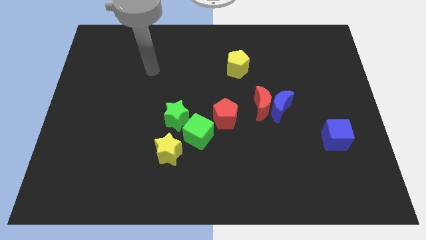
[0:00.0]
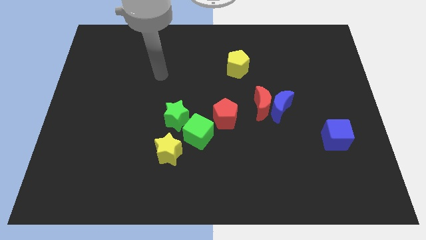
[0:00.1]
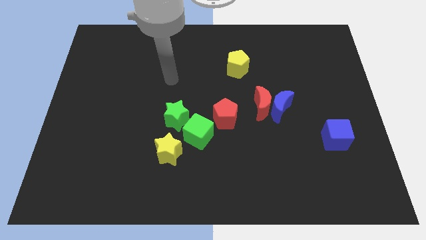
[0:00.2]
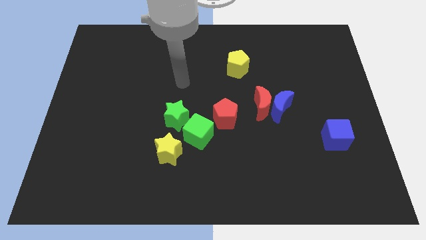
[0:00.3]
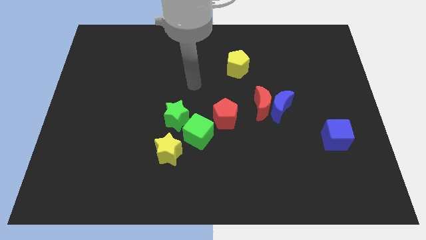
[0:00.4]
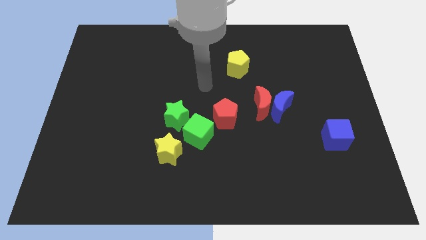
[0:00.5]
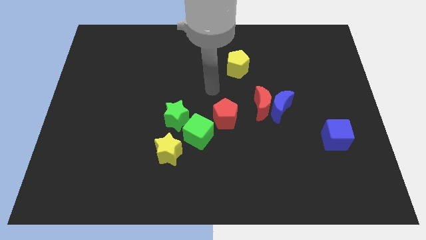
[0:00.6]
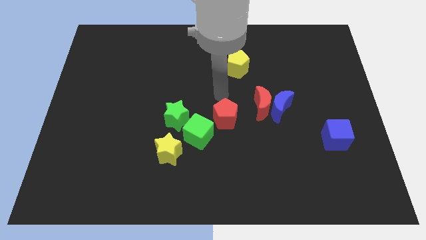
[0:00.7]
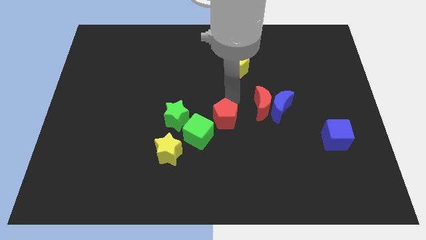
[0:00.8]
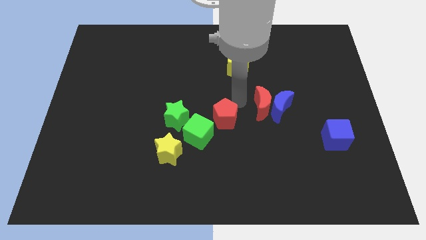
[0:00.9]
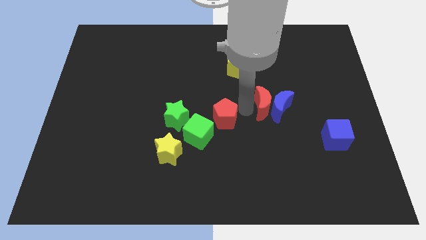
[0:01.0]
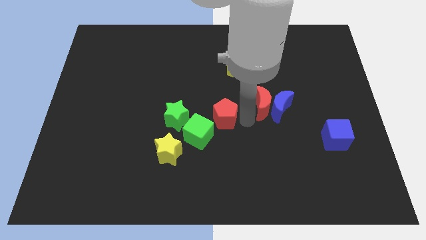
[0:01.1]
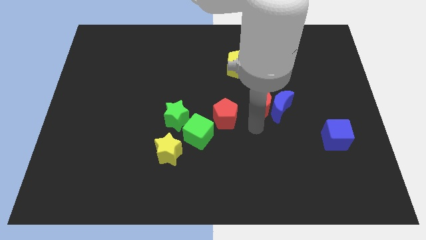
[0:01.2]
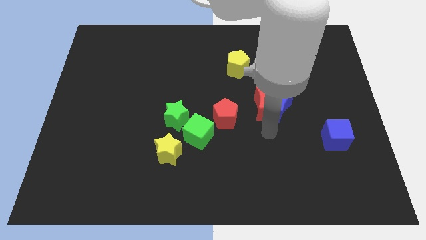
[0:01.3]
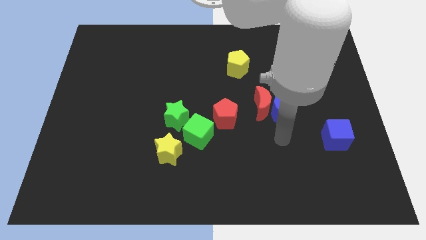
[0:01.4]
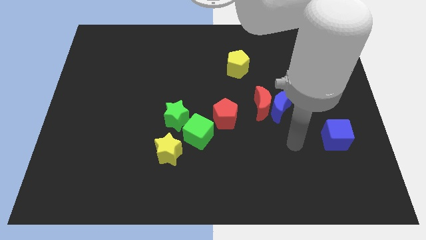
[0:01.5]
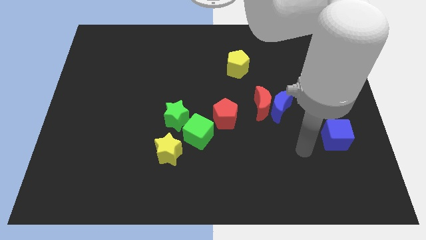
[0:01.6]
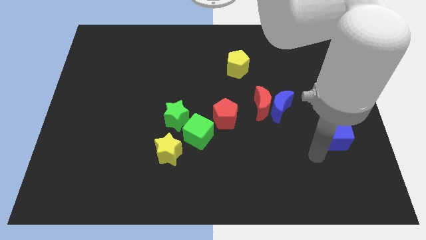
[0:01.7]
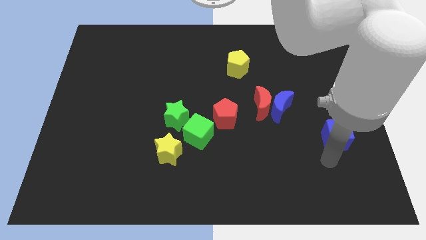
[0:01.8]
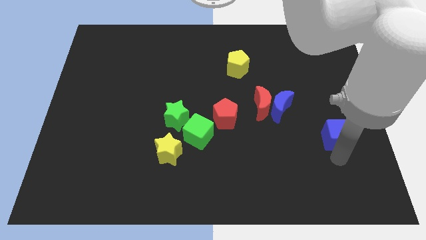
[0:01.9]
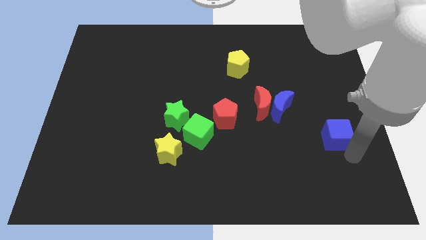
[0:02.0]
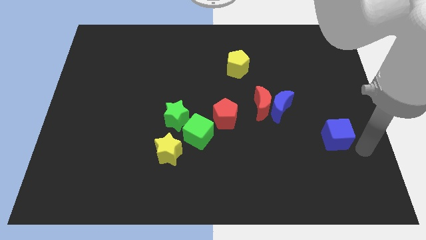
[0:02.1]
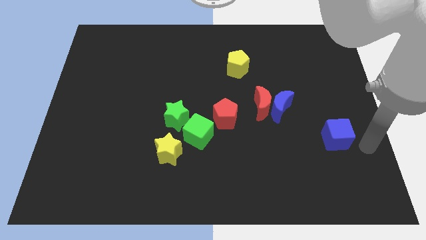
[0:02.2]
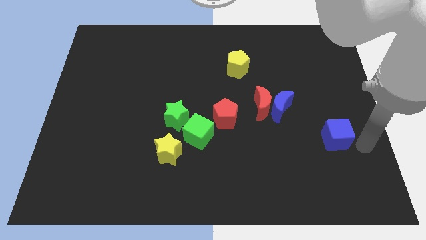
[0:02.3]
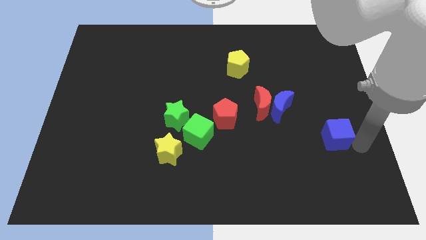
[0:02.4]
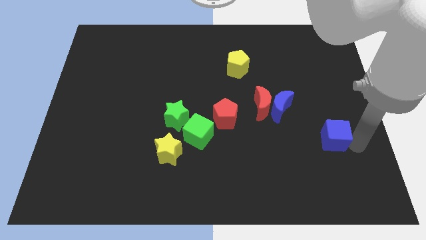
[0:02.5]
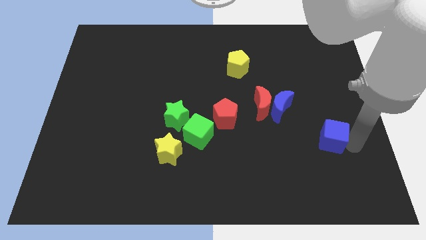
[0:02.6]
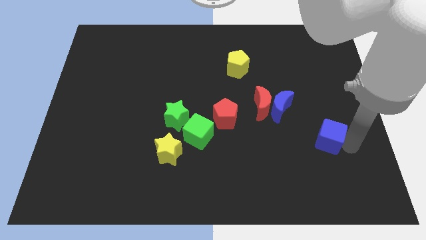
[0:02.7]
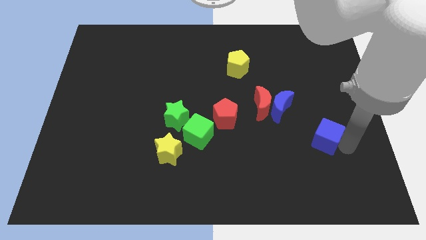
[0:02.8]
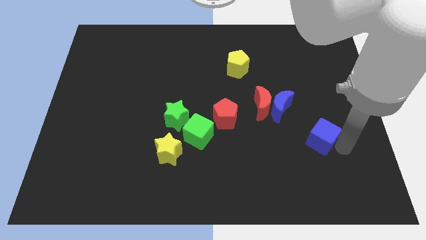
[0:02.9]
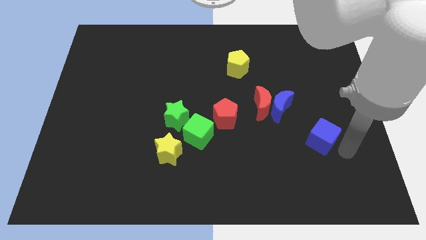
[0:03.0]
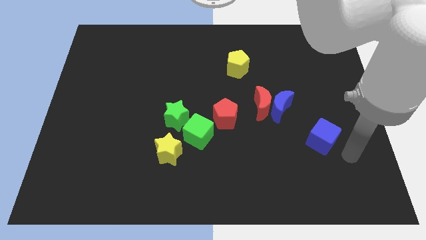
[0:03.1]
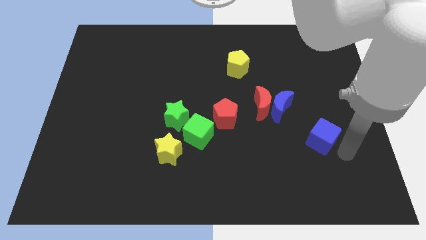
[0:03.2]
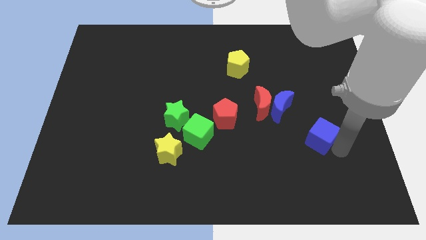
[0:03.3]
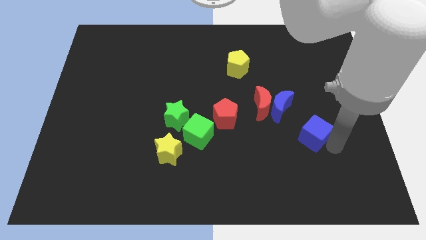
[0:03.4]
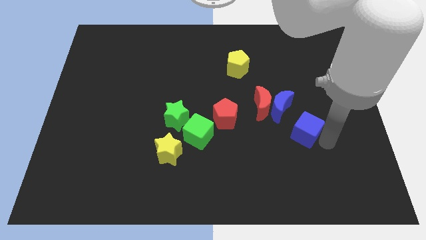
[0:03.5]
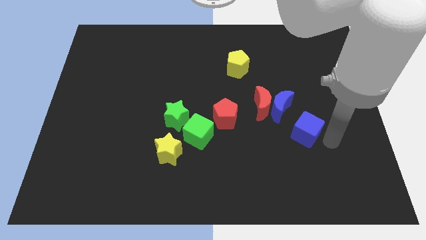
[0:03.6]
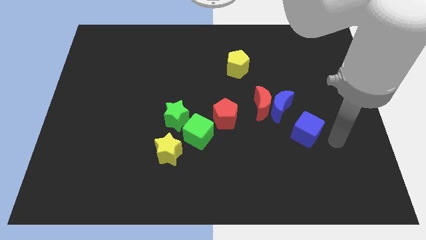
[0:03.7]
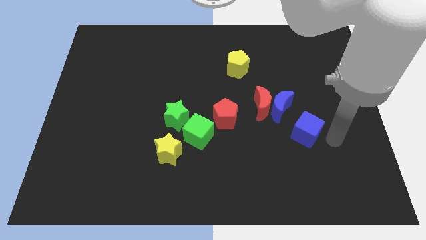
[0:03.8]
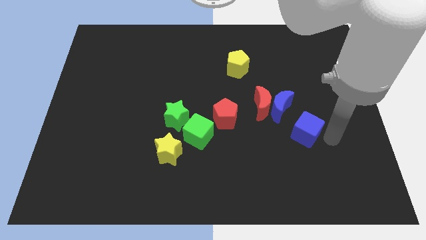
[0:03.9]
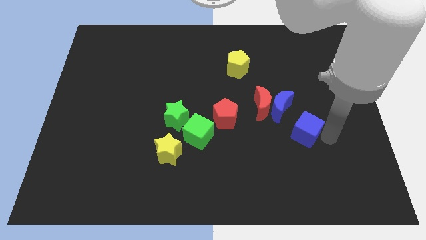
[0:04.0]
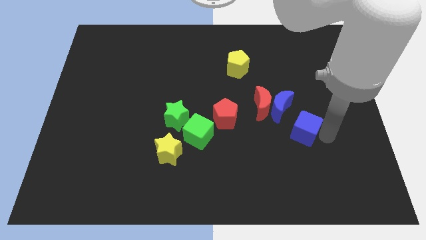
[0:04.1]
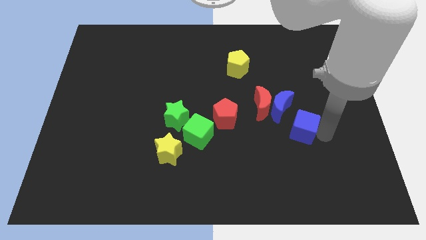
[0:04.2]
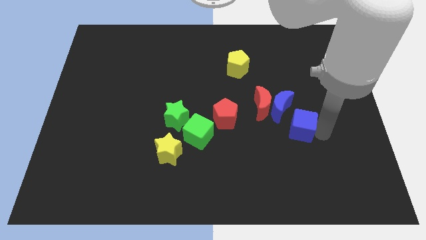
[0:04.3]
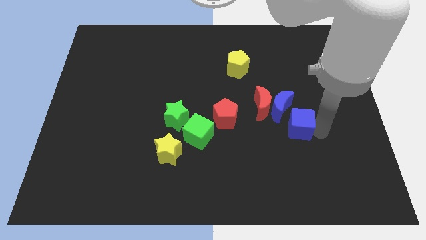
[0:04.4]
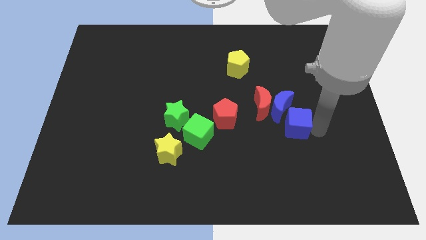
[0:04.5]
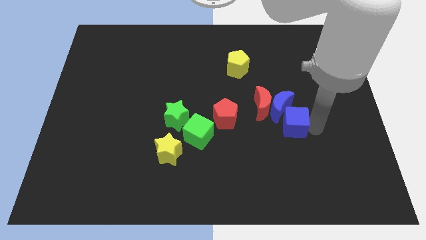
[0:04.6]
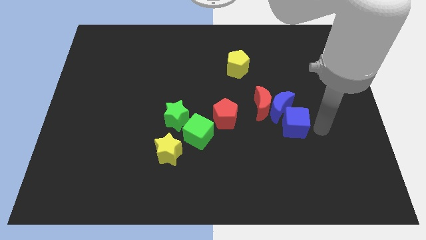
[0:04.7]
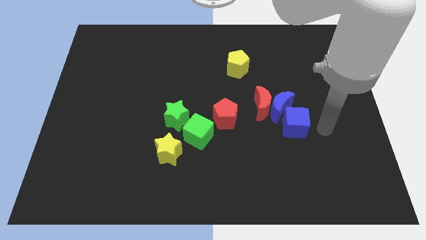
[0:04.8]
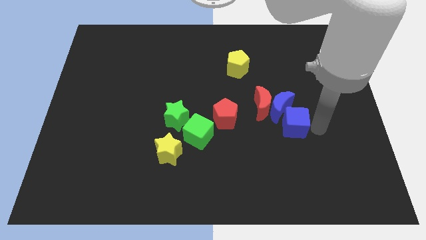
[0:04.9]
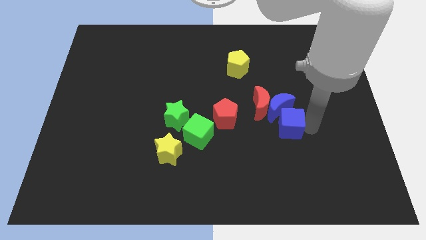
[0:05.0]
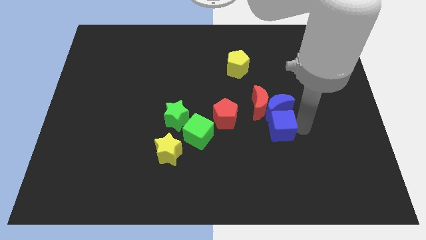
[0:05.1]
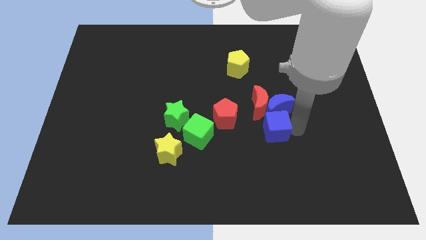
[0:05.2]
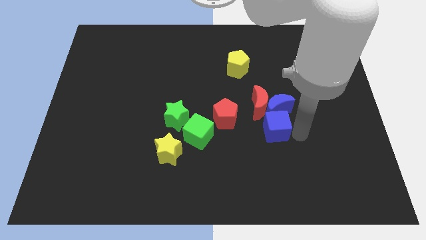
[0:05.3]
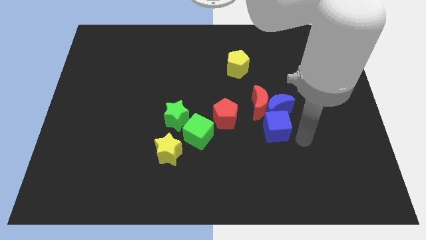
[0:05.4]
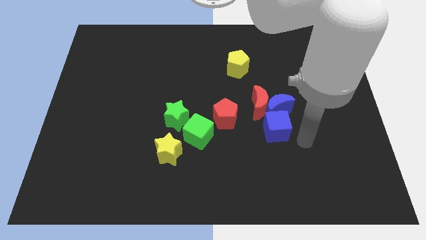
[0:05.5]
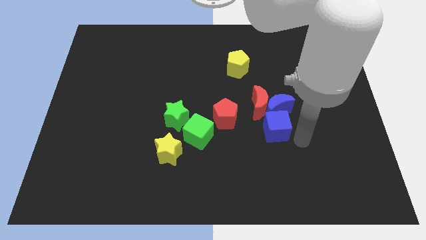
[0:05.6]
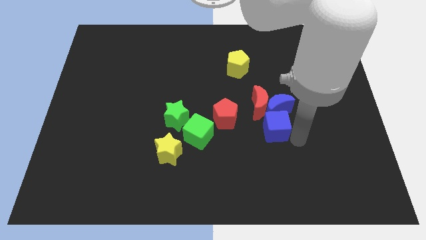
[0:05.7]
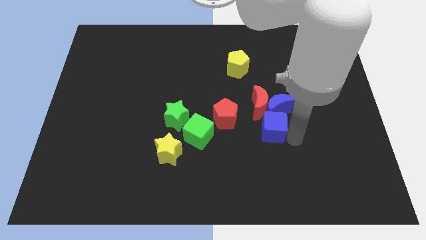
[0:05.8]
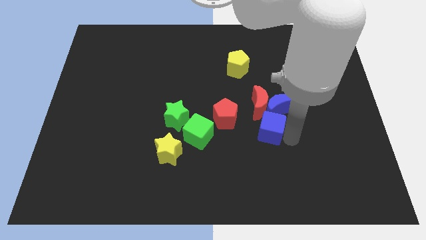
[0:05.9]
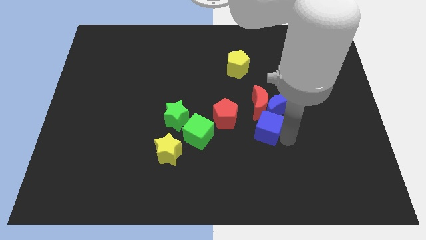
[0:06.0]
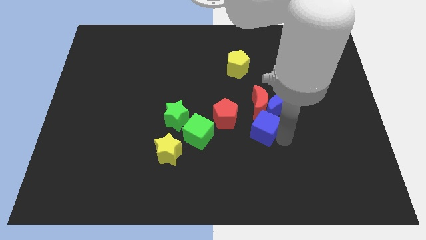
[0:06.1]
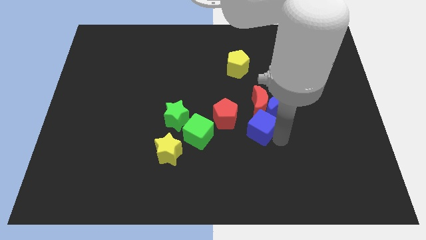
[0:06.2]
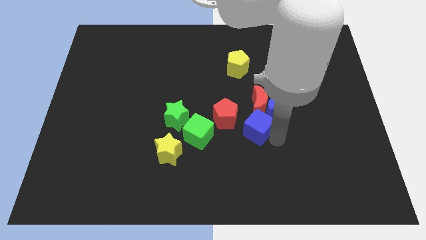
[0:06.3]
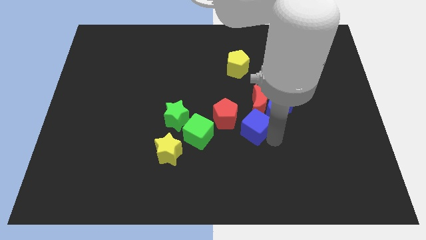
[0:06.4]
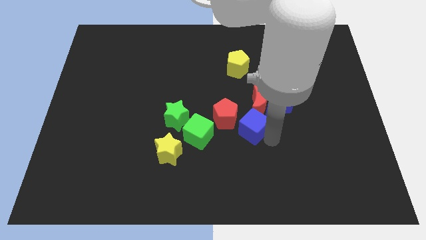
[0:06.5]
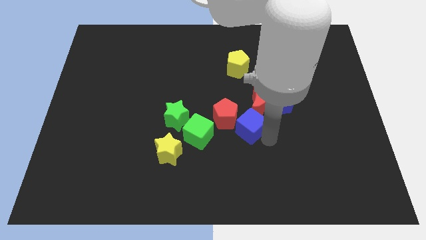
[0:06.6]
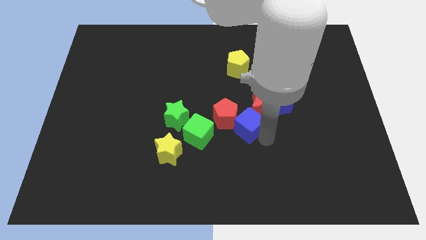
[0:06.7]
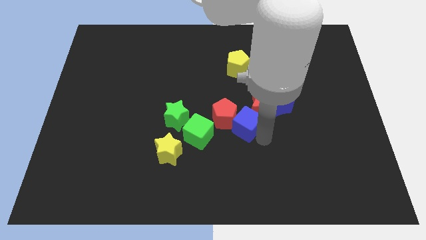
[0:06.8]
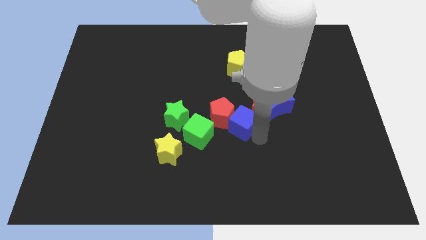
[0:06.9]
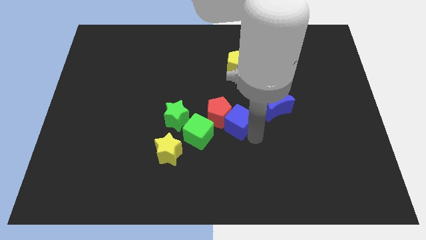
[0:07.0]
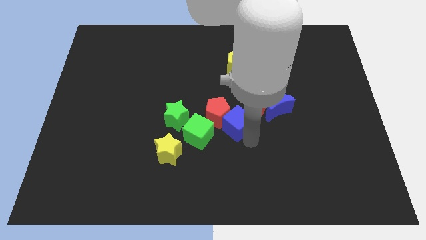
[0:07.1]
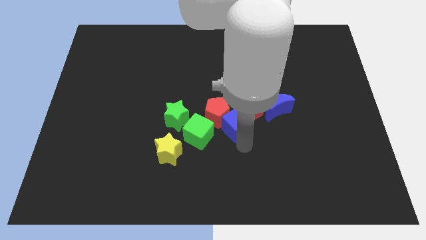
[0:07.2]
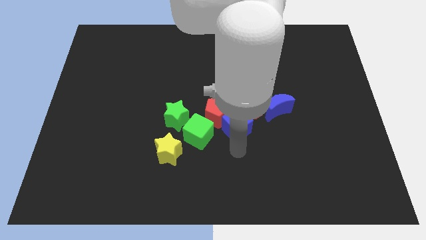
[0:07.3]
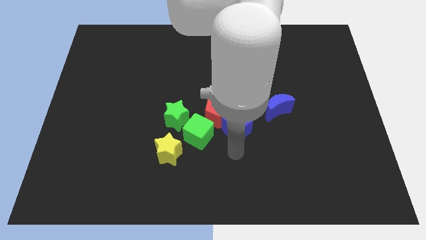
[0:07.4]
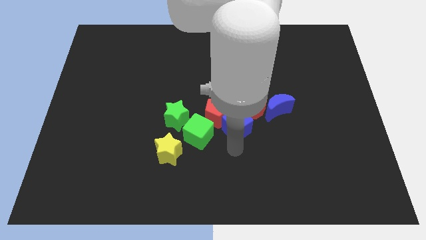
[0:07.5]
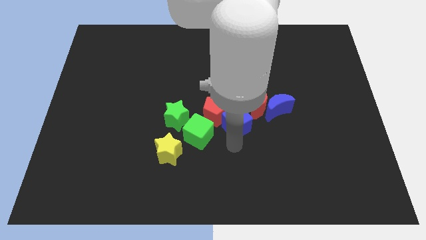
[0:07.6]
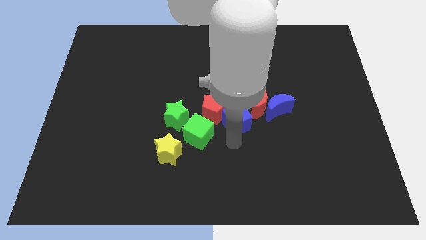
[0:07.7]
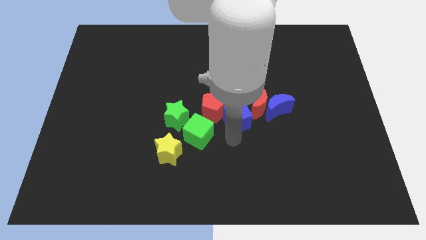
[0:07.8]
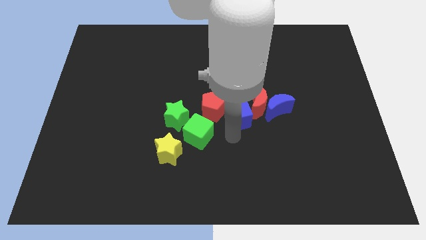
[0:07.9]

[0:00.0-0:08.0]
push the blue cube to the bottom side of the yellow pentagon

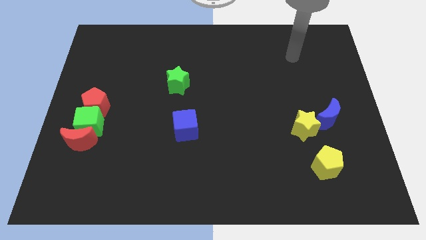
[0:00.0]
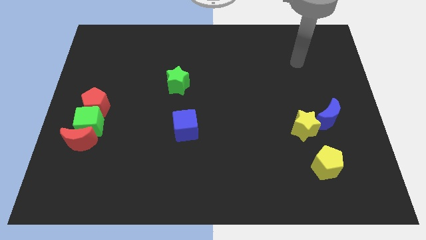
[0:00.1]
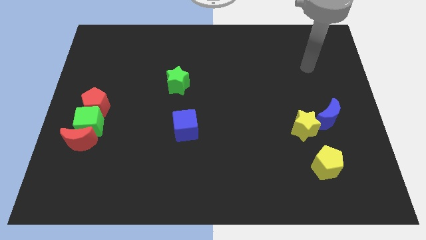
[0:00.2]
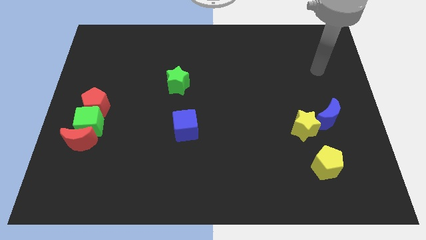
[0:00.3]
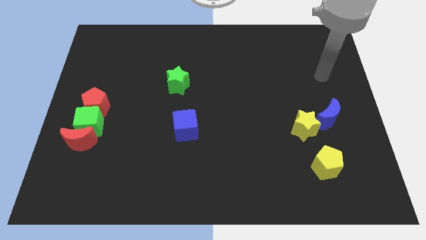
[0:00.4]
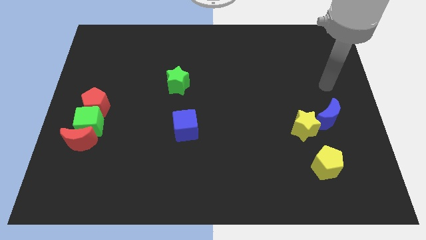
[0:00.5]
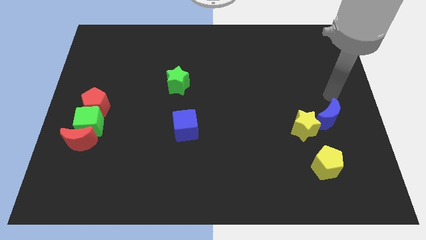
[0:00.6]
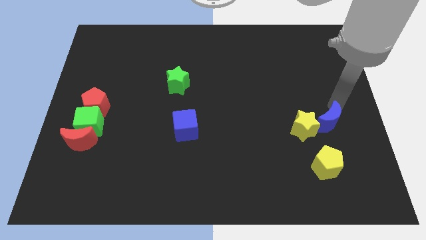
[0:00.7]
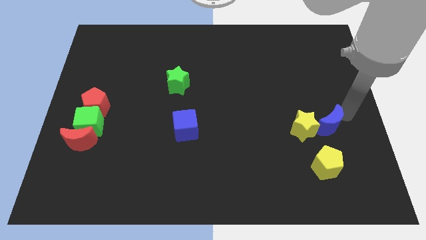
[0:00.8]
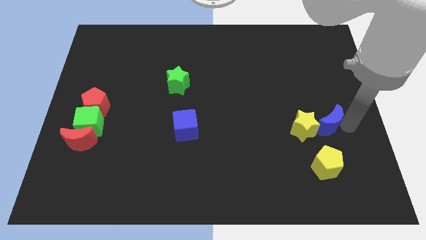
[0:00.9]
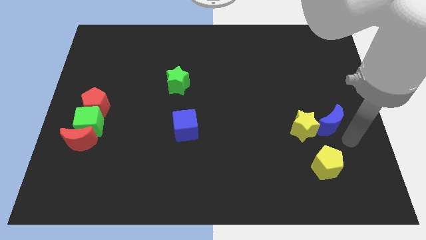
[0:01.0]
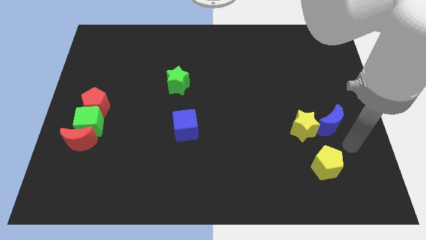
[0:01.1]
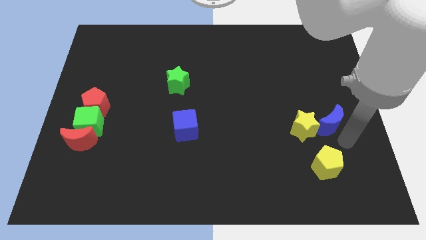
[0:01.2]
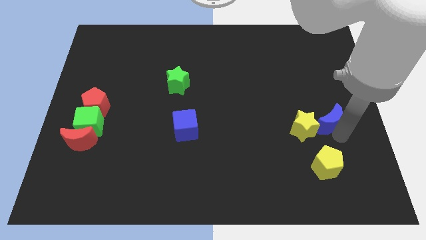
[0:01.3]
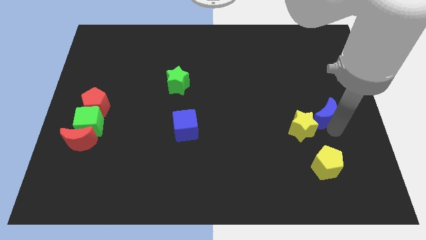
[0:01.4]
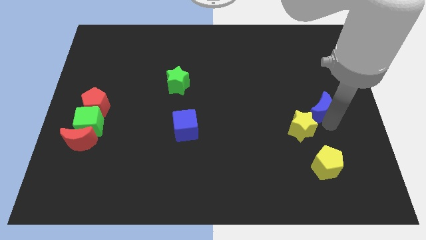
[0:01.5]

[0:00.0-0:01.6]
move the blue moon to the top side of the yellow star
